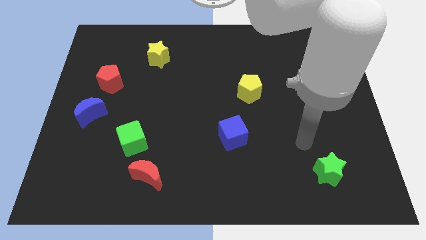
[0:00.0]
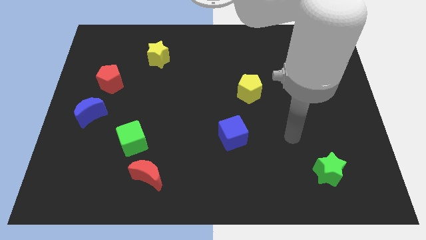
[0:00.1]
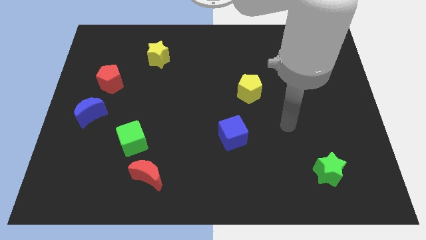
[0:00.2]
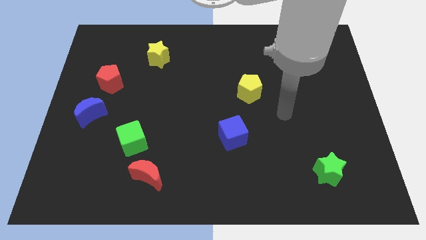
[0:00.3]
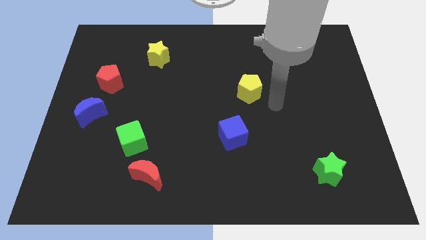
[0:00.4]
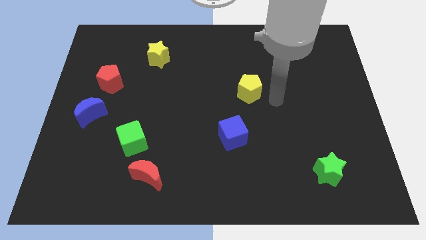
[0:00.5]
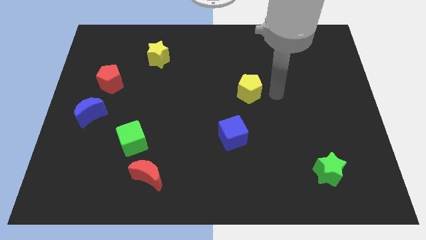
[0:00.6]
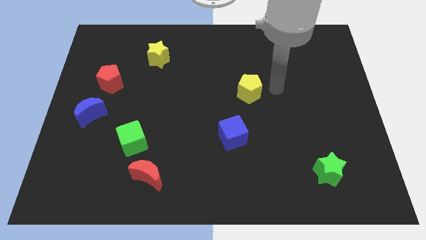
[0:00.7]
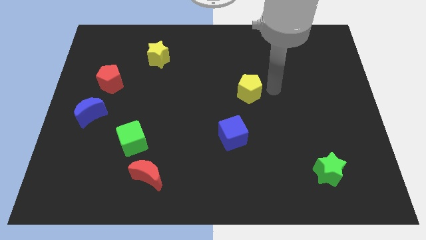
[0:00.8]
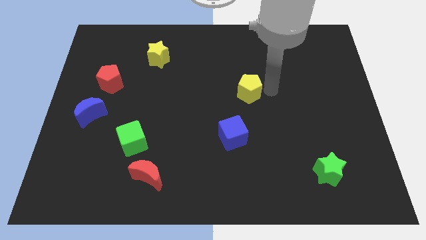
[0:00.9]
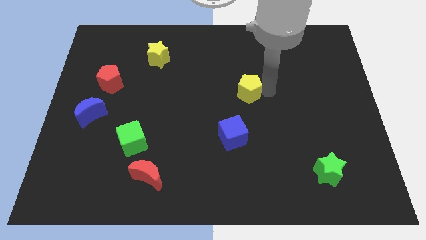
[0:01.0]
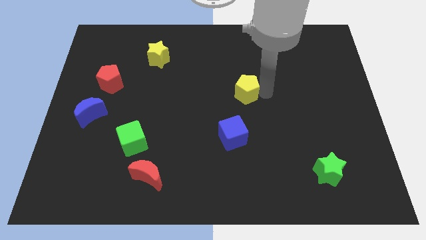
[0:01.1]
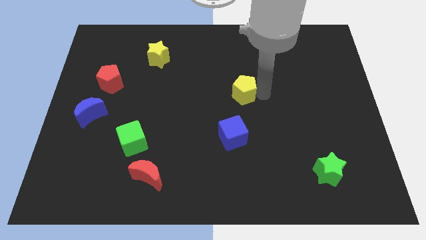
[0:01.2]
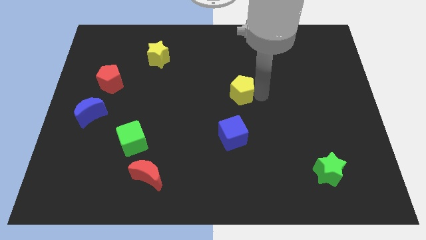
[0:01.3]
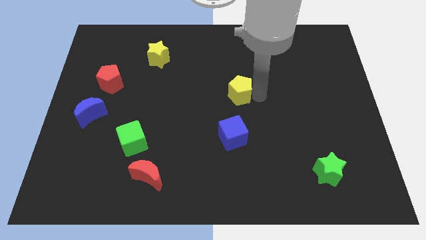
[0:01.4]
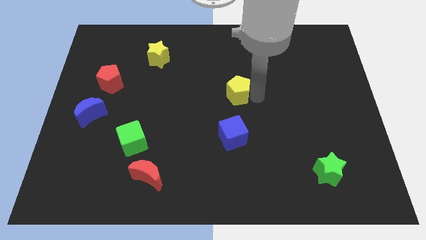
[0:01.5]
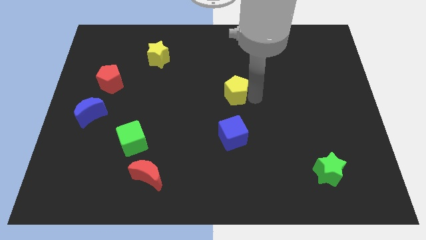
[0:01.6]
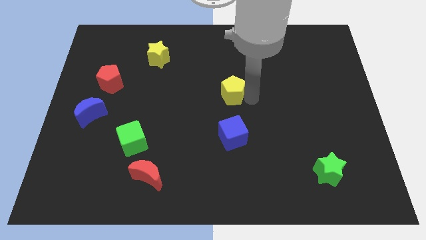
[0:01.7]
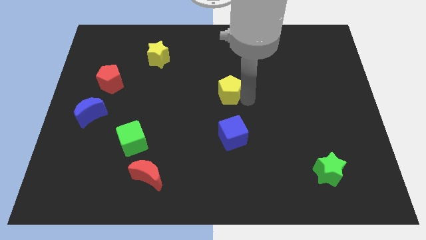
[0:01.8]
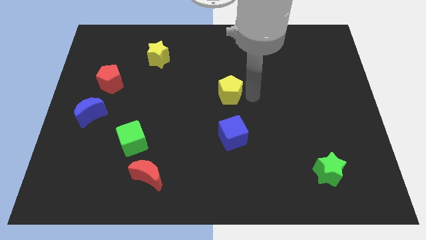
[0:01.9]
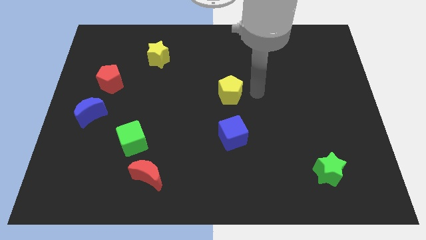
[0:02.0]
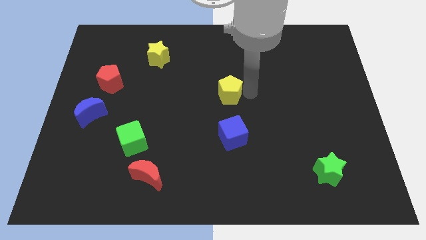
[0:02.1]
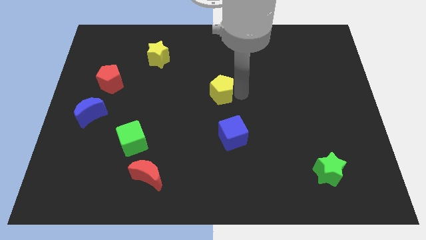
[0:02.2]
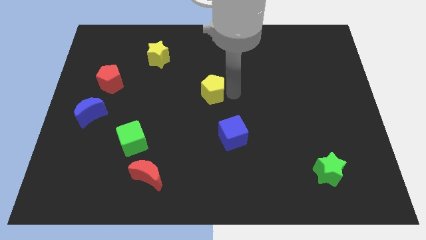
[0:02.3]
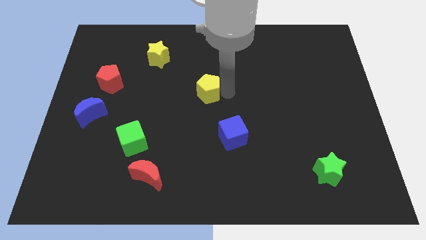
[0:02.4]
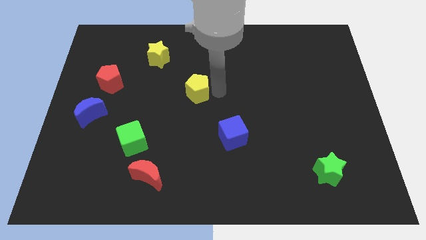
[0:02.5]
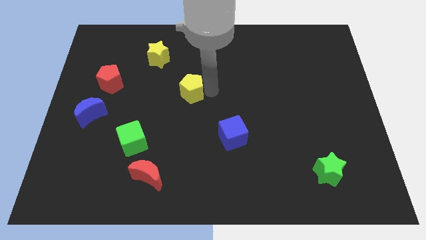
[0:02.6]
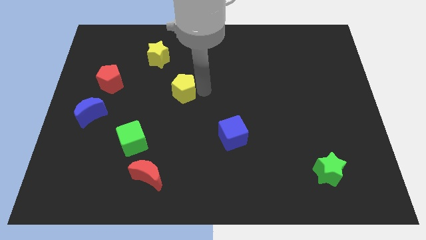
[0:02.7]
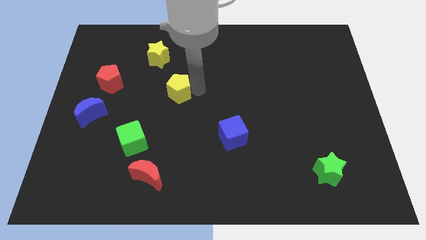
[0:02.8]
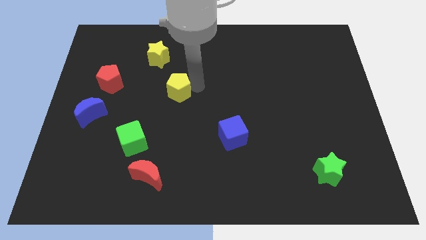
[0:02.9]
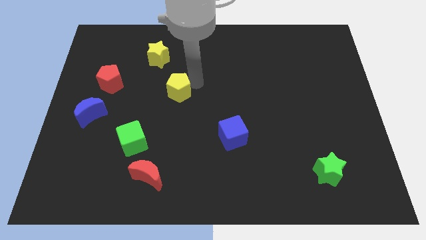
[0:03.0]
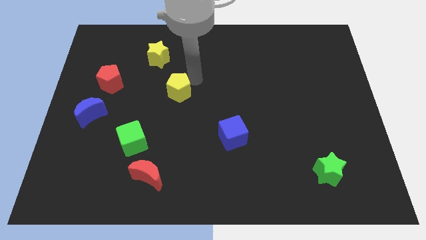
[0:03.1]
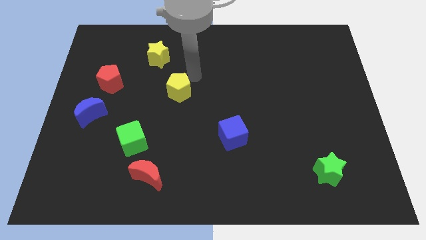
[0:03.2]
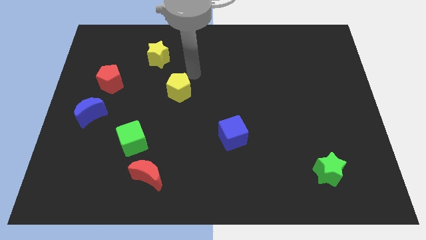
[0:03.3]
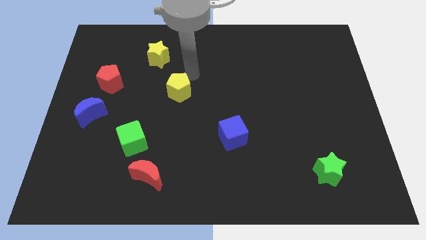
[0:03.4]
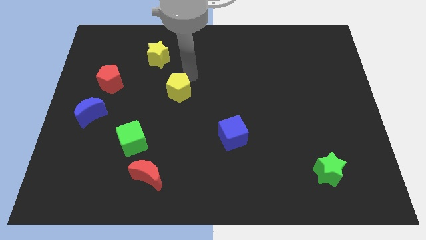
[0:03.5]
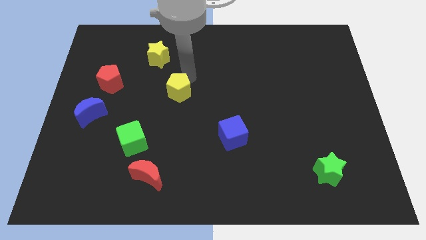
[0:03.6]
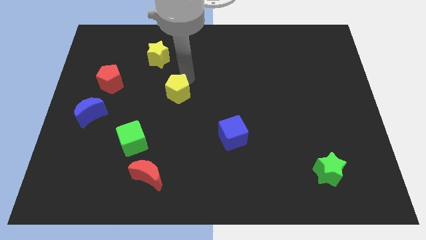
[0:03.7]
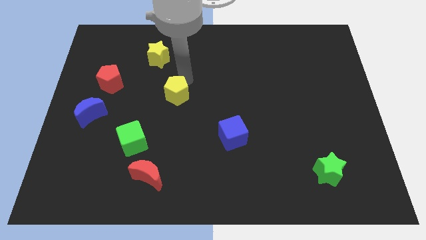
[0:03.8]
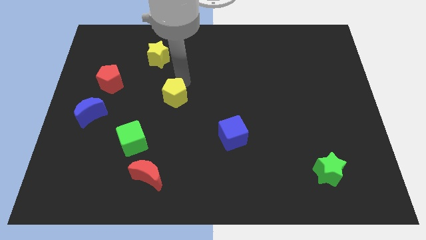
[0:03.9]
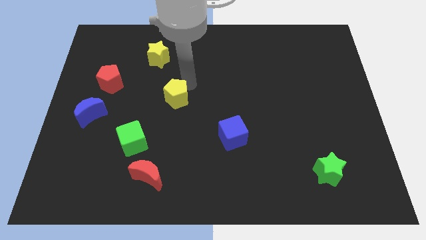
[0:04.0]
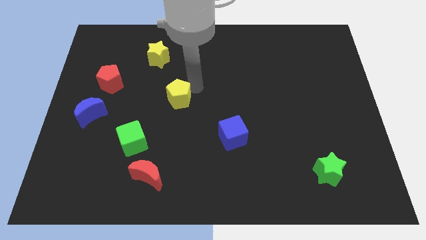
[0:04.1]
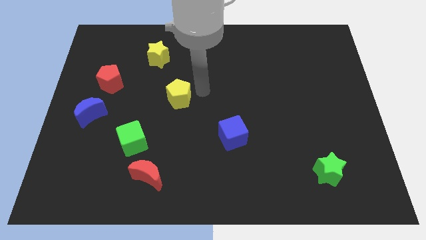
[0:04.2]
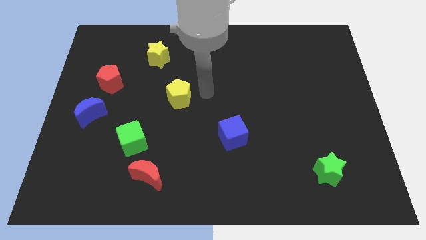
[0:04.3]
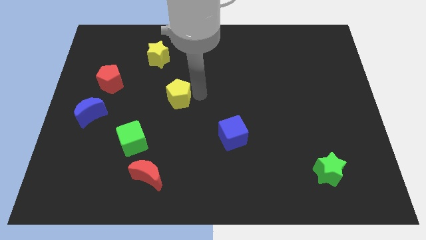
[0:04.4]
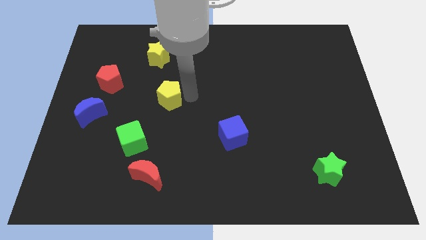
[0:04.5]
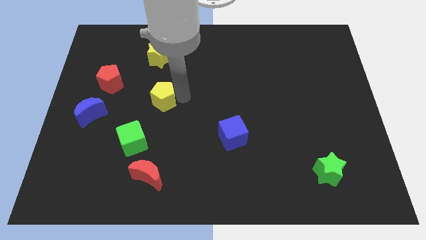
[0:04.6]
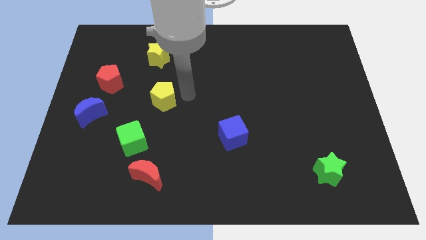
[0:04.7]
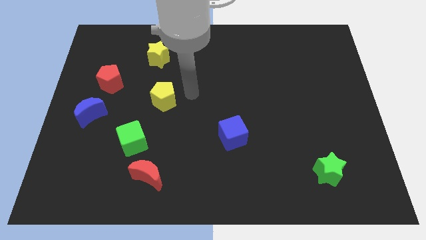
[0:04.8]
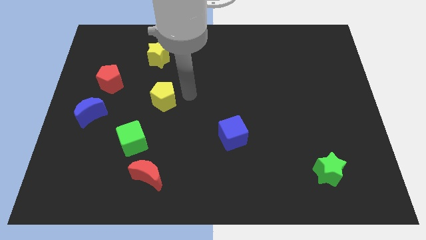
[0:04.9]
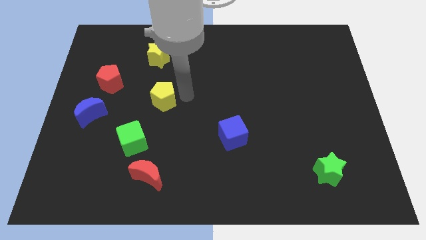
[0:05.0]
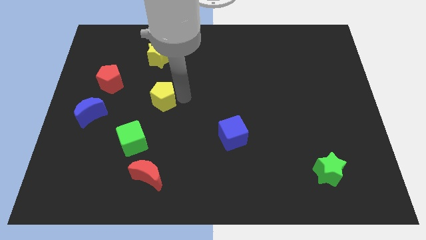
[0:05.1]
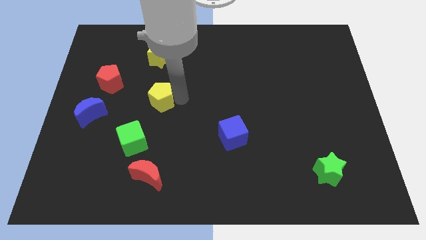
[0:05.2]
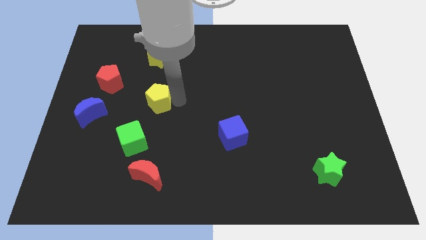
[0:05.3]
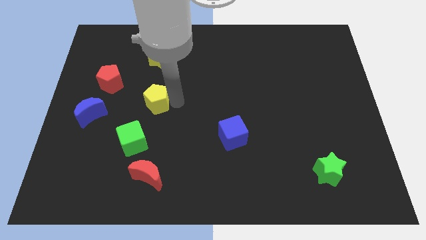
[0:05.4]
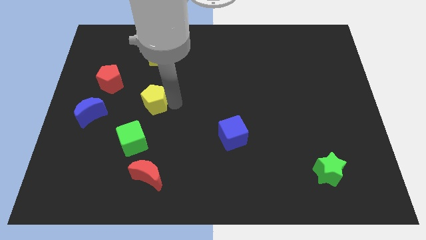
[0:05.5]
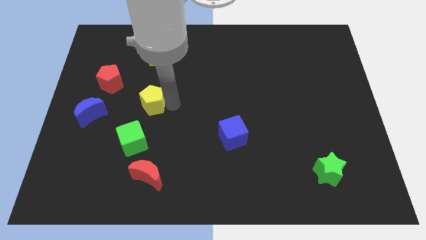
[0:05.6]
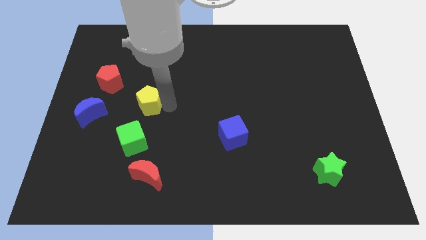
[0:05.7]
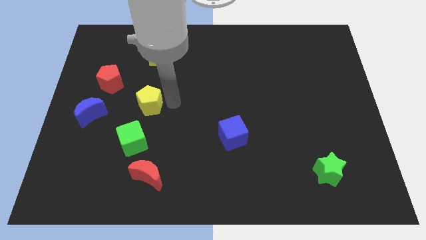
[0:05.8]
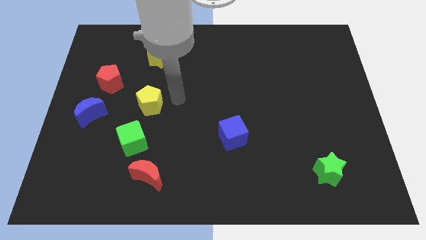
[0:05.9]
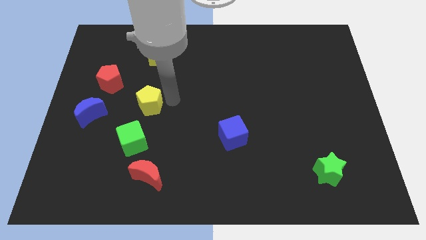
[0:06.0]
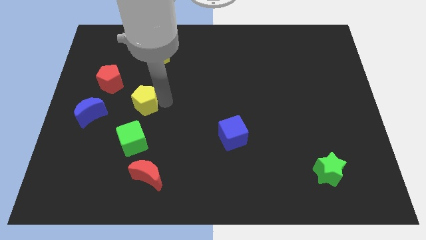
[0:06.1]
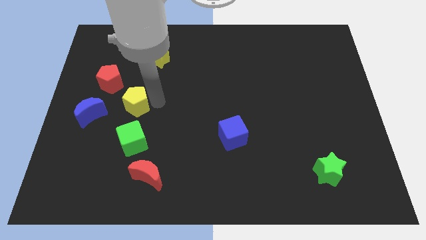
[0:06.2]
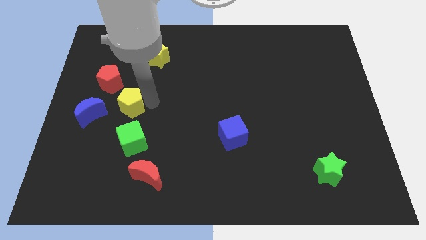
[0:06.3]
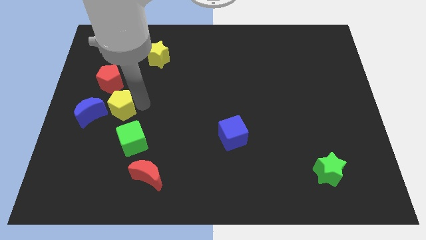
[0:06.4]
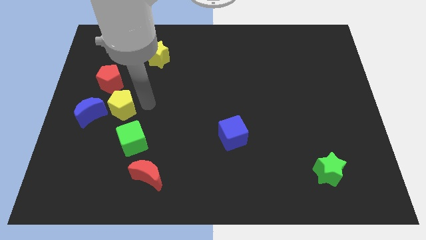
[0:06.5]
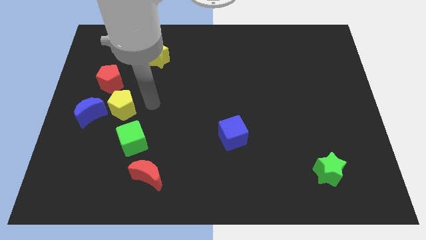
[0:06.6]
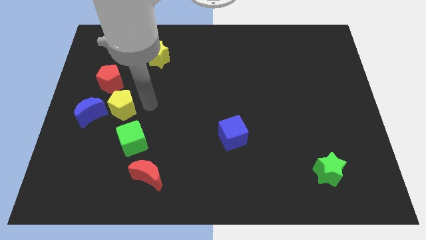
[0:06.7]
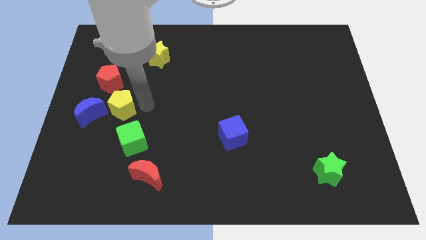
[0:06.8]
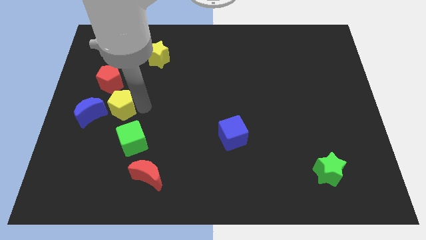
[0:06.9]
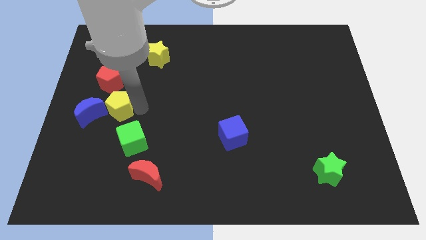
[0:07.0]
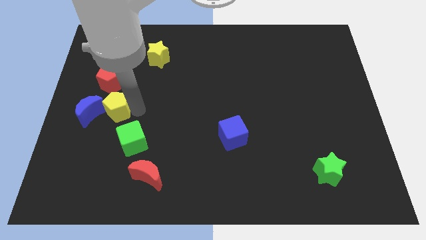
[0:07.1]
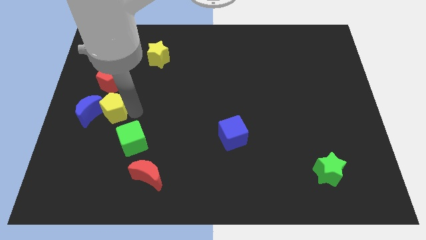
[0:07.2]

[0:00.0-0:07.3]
push the yellow pentagon to the blue moon

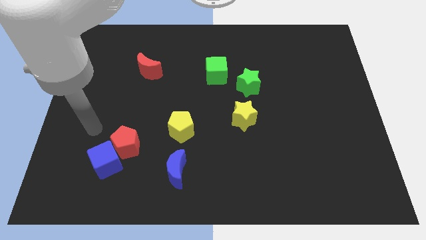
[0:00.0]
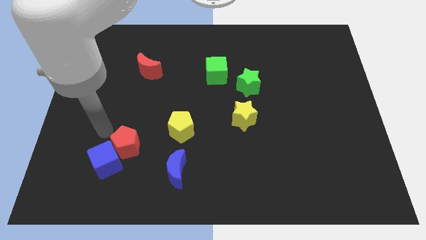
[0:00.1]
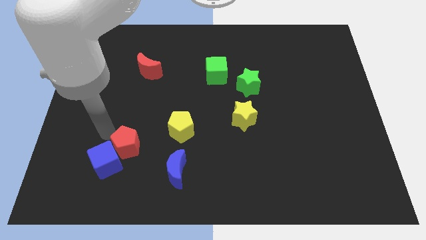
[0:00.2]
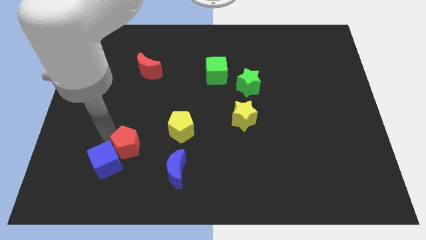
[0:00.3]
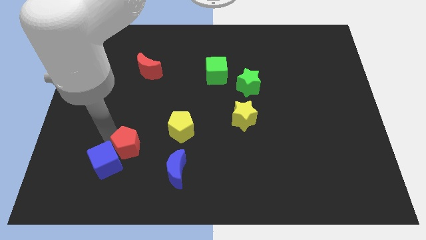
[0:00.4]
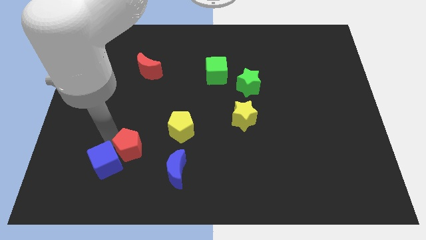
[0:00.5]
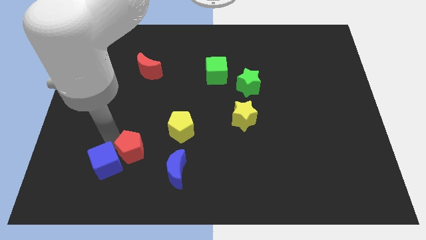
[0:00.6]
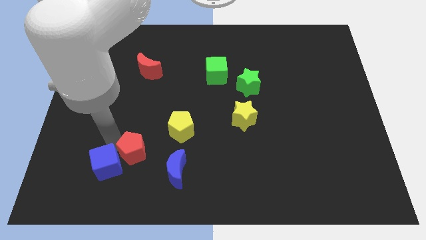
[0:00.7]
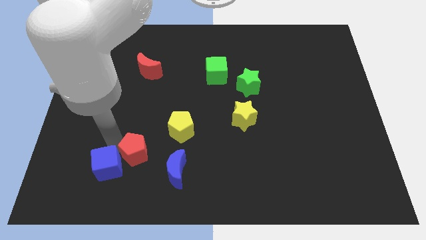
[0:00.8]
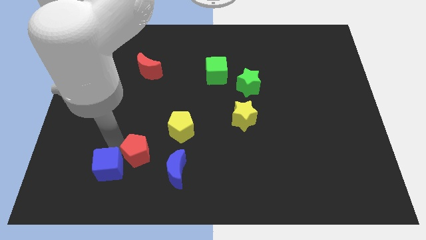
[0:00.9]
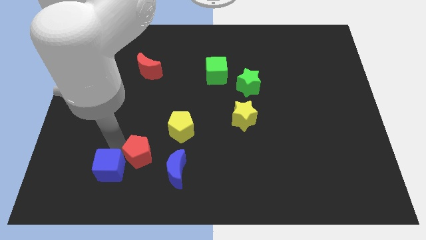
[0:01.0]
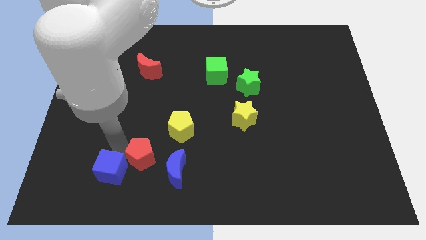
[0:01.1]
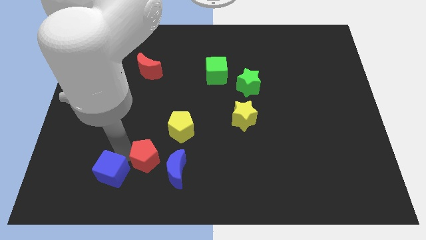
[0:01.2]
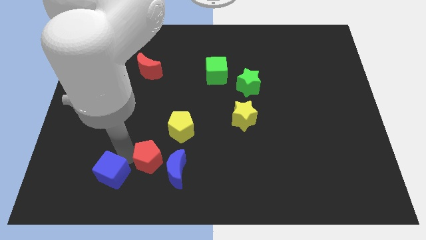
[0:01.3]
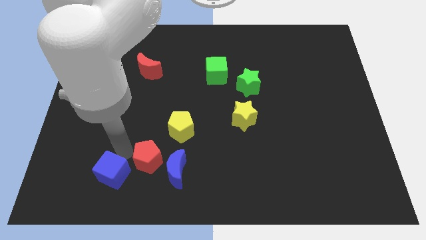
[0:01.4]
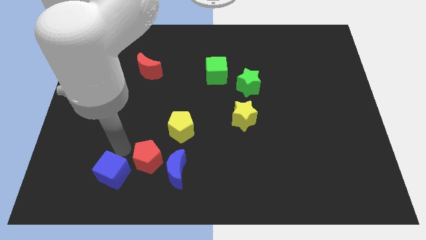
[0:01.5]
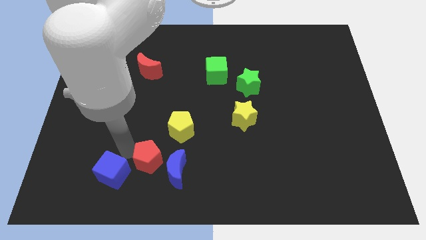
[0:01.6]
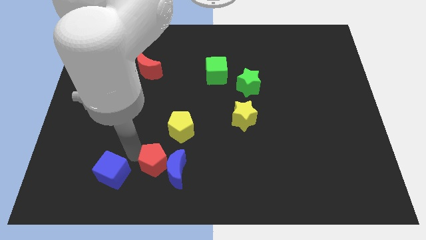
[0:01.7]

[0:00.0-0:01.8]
push the red pentagon next to the blue moon
